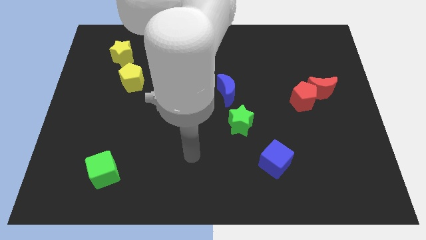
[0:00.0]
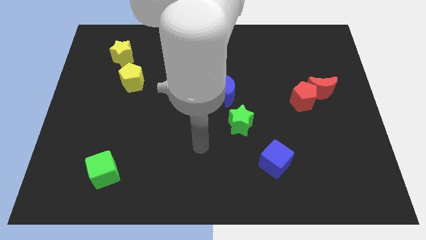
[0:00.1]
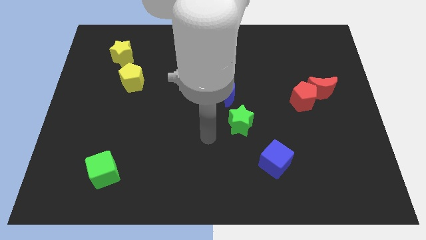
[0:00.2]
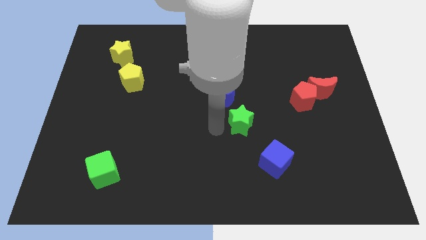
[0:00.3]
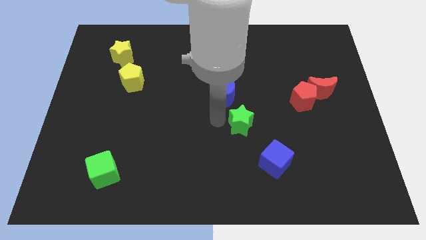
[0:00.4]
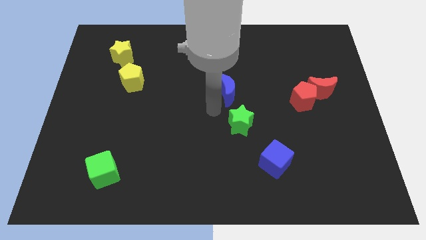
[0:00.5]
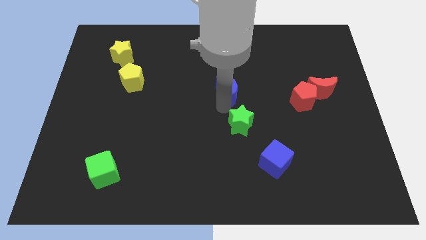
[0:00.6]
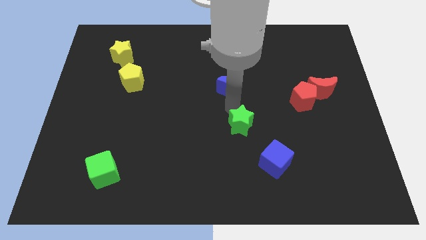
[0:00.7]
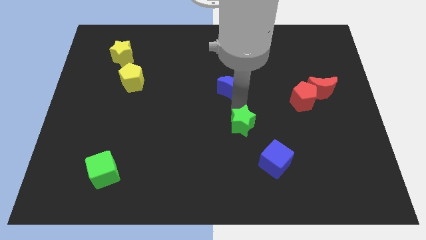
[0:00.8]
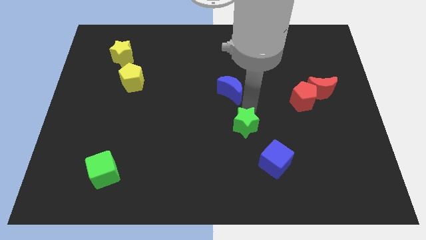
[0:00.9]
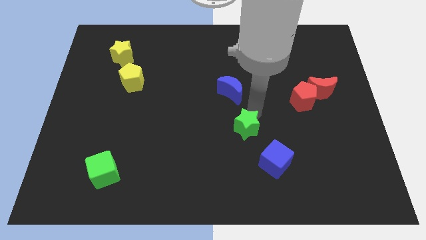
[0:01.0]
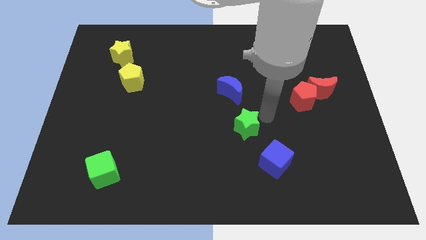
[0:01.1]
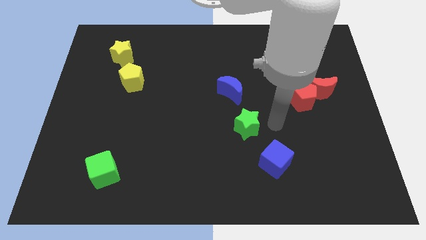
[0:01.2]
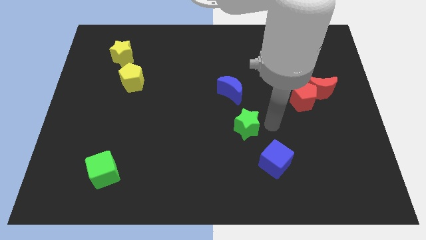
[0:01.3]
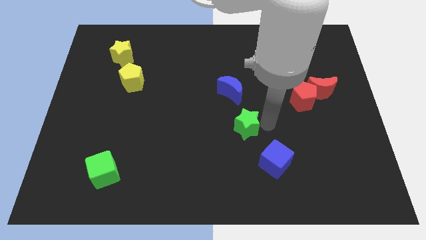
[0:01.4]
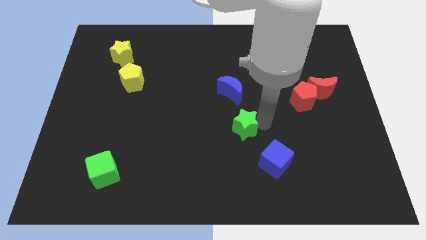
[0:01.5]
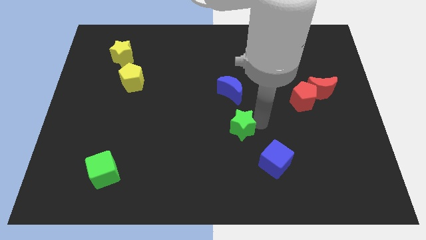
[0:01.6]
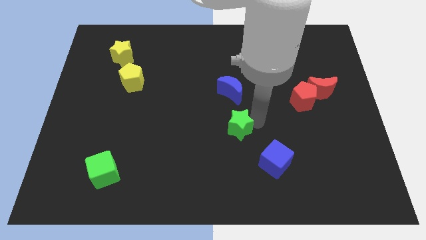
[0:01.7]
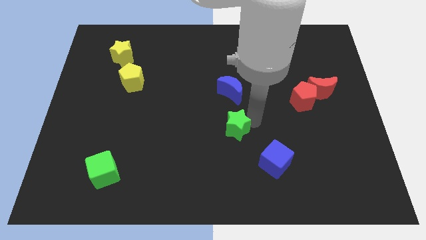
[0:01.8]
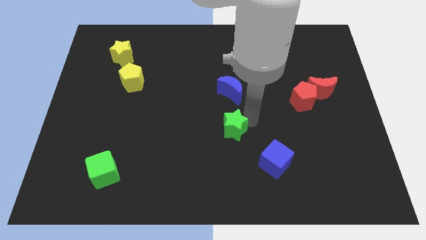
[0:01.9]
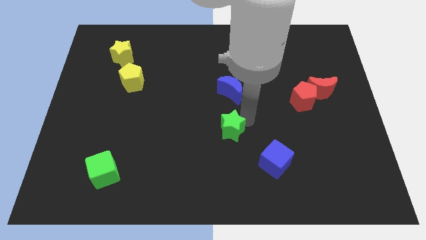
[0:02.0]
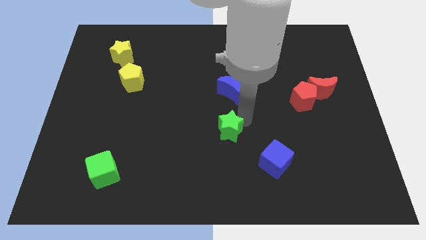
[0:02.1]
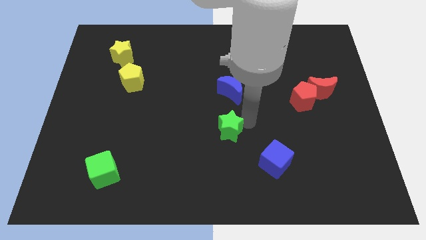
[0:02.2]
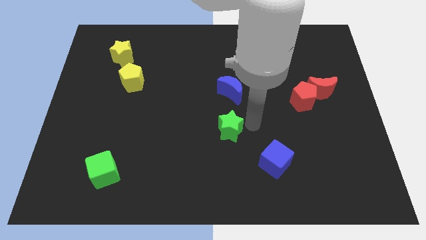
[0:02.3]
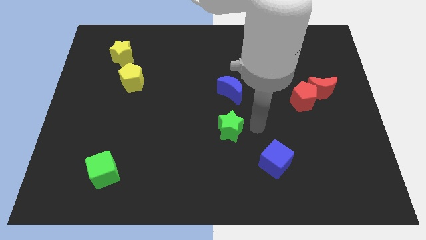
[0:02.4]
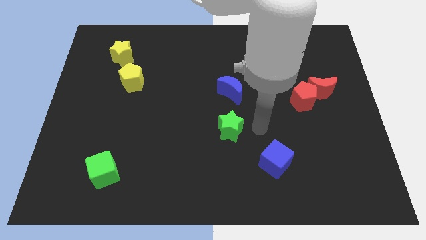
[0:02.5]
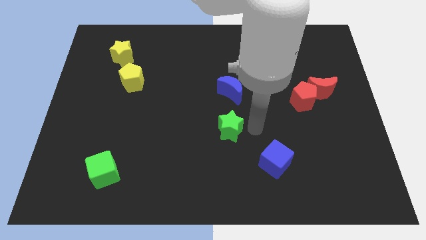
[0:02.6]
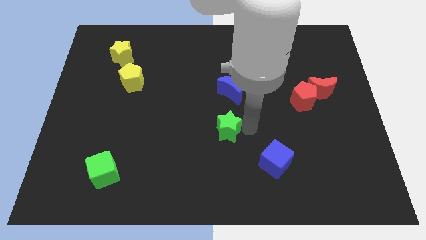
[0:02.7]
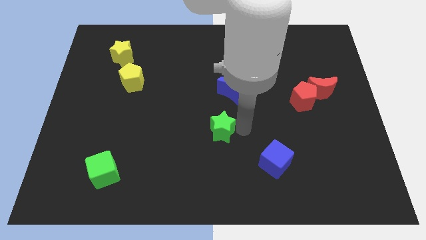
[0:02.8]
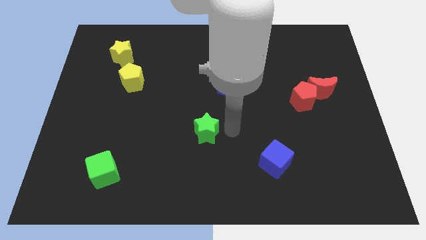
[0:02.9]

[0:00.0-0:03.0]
move the green star to the left a little bit

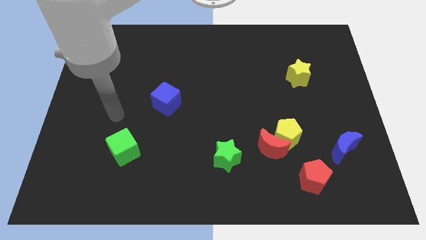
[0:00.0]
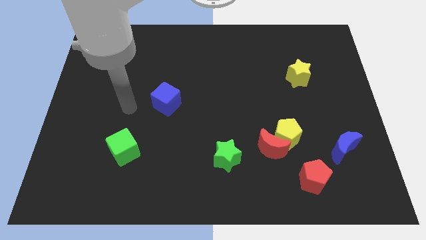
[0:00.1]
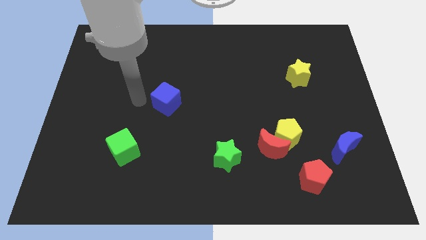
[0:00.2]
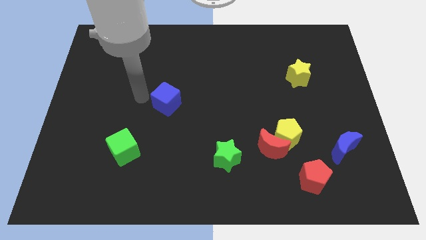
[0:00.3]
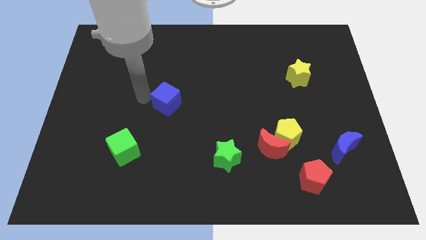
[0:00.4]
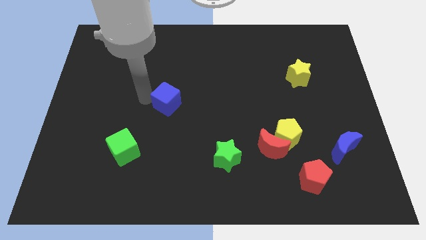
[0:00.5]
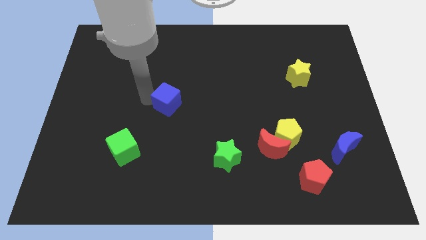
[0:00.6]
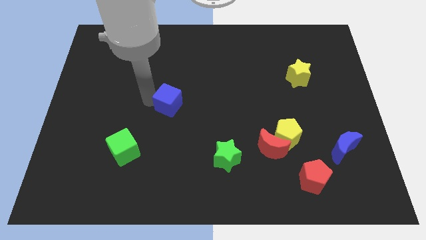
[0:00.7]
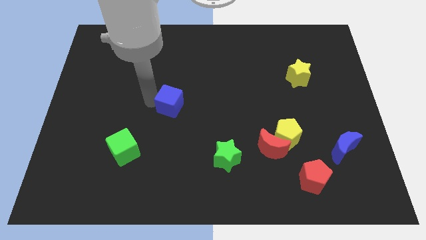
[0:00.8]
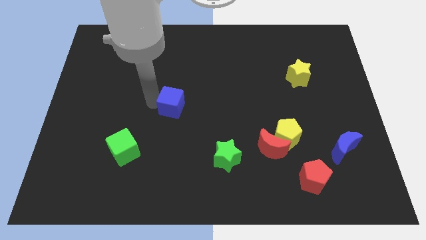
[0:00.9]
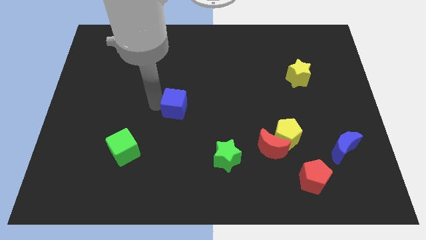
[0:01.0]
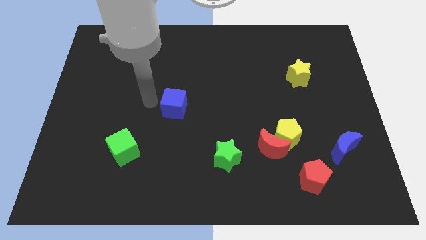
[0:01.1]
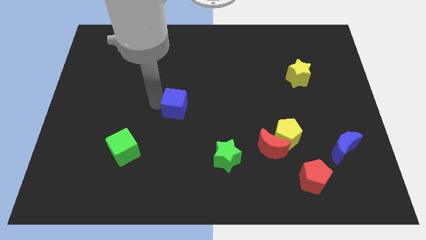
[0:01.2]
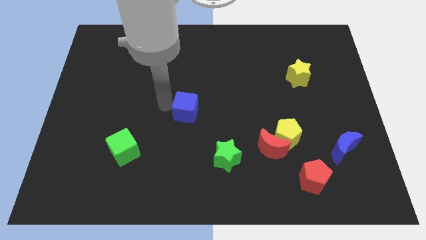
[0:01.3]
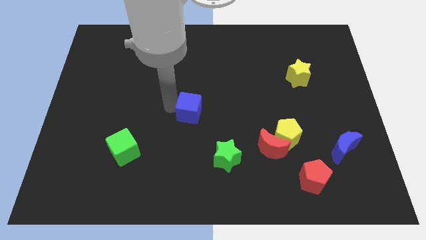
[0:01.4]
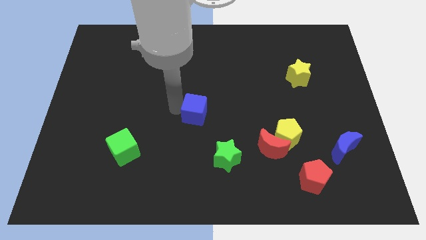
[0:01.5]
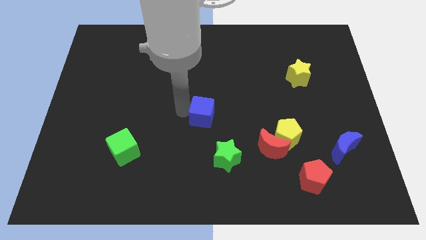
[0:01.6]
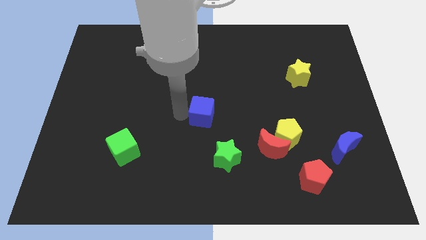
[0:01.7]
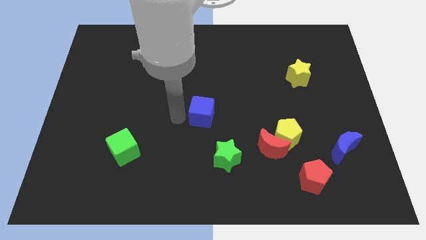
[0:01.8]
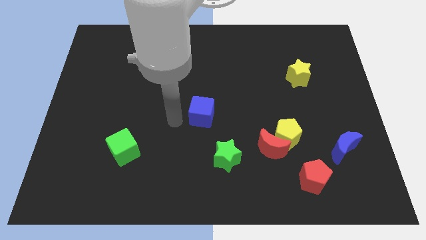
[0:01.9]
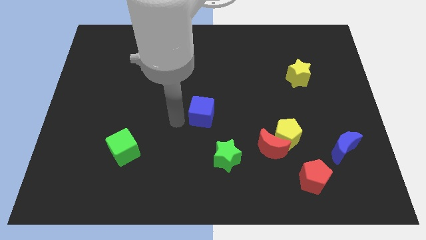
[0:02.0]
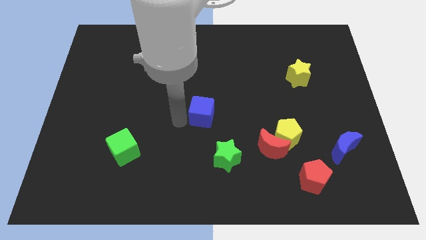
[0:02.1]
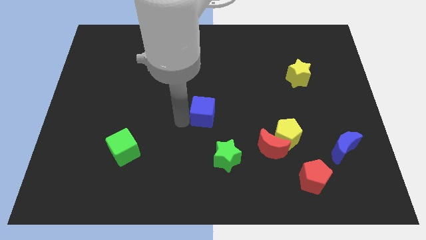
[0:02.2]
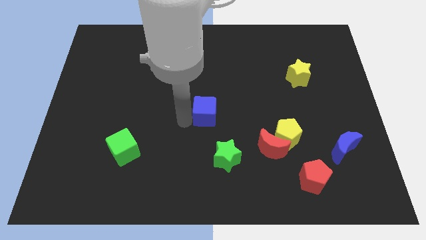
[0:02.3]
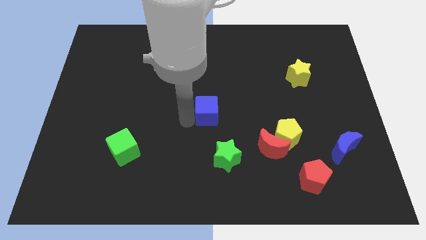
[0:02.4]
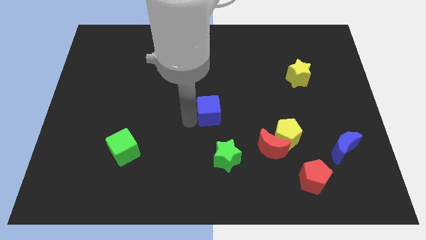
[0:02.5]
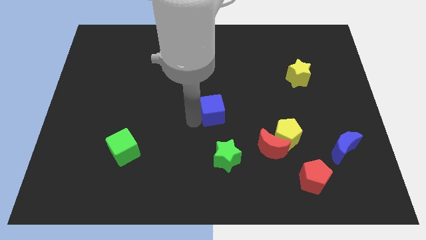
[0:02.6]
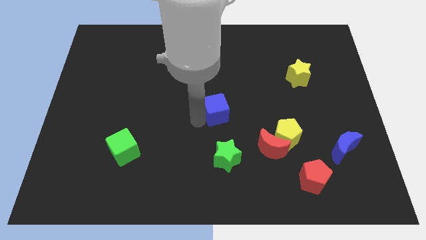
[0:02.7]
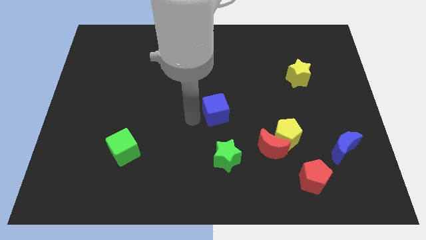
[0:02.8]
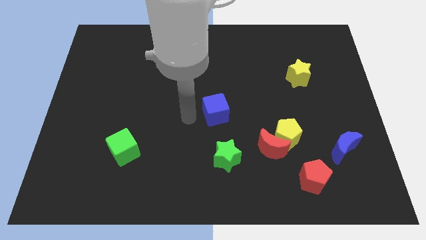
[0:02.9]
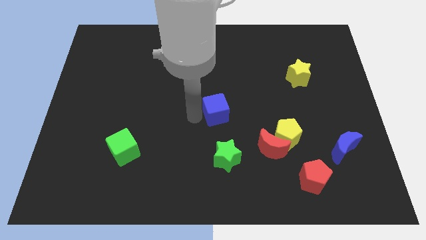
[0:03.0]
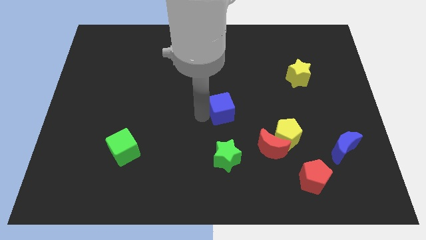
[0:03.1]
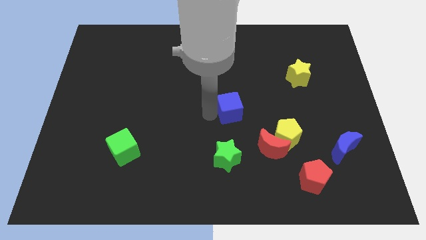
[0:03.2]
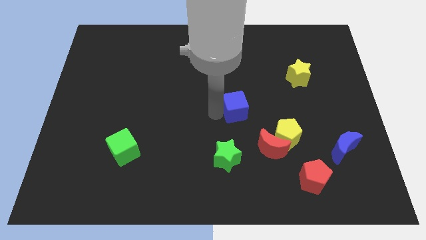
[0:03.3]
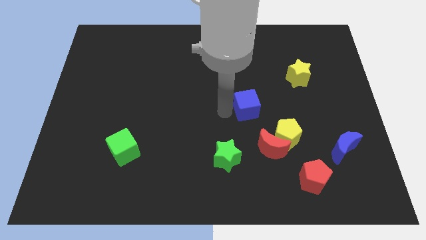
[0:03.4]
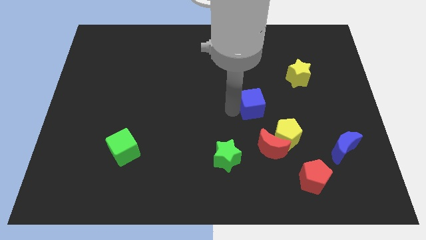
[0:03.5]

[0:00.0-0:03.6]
push the blue cube right

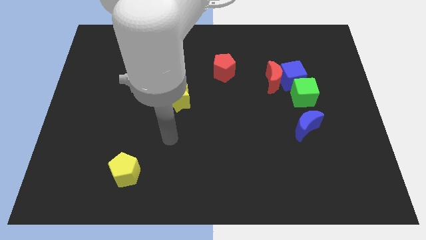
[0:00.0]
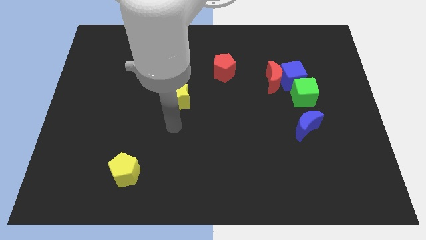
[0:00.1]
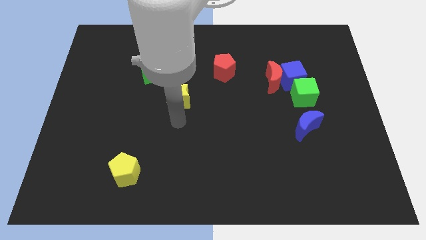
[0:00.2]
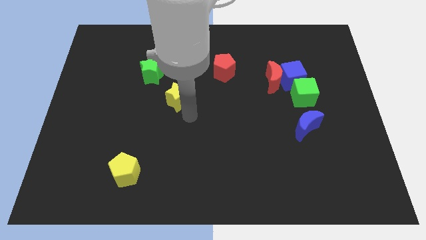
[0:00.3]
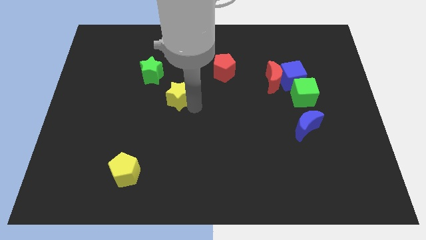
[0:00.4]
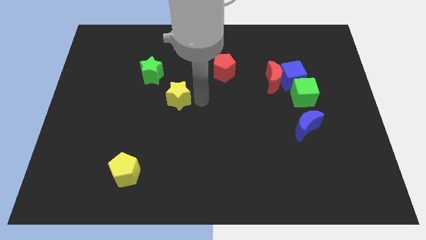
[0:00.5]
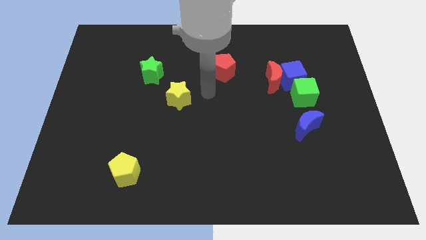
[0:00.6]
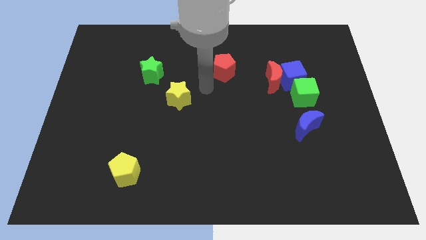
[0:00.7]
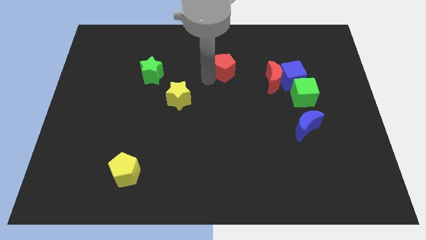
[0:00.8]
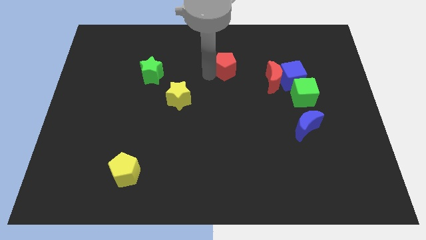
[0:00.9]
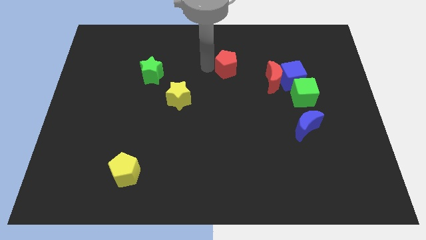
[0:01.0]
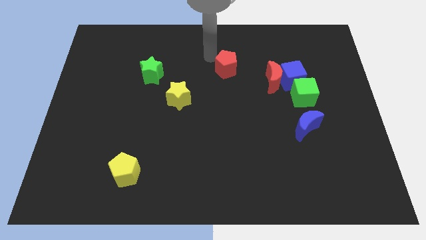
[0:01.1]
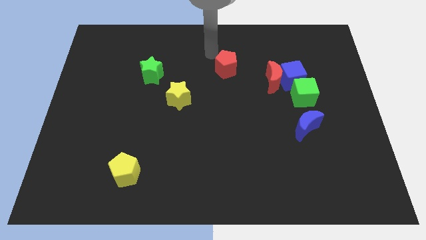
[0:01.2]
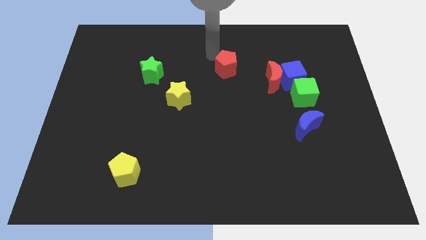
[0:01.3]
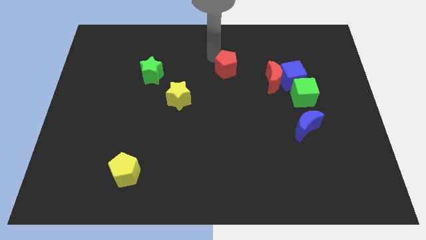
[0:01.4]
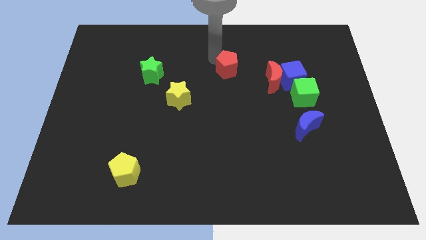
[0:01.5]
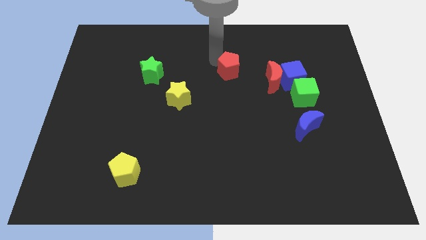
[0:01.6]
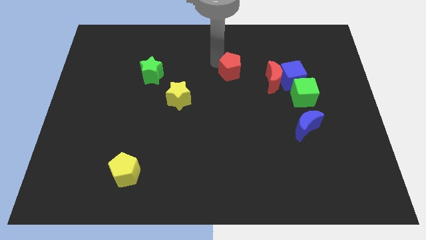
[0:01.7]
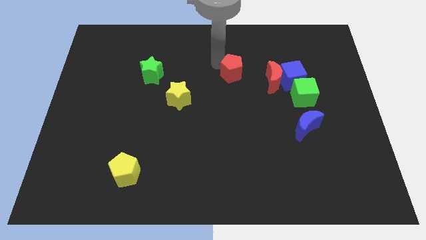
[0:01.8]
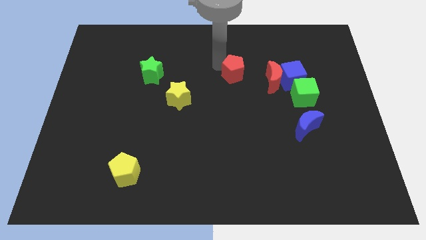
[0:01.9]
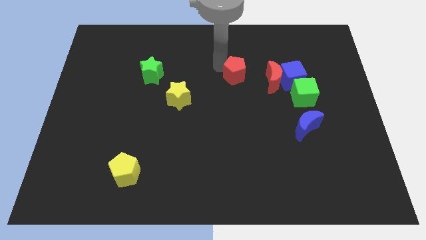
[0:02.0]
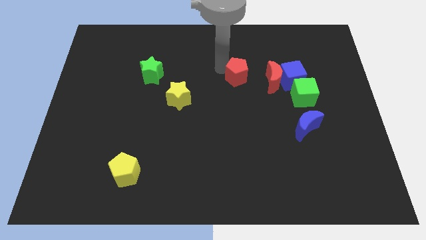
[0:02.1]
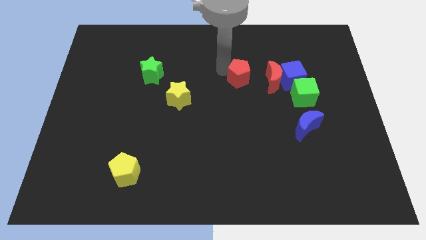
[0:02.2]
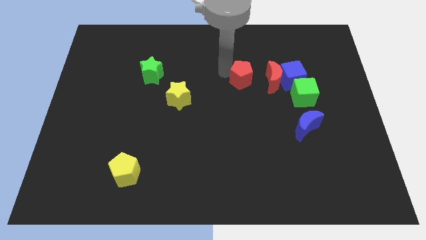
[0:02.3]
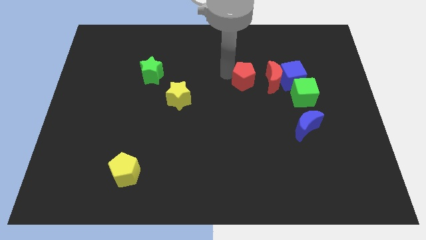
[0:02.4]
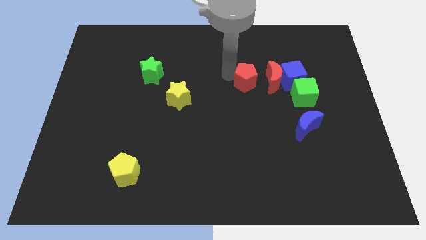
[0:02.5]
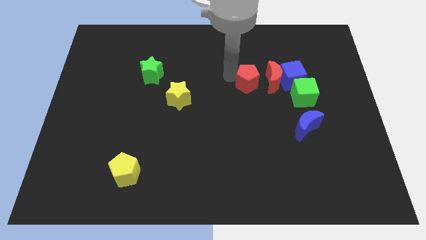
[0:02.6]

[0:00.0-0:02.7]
slide the red pentagon somewhat diagonally downwards and right
